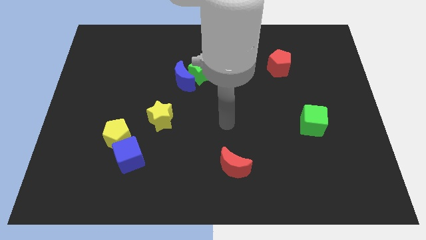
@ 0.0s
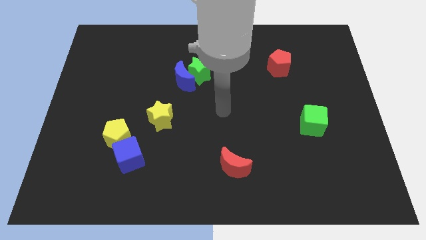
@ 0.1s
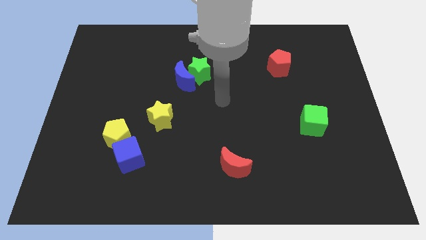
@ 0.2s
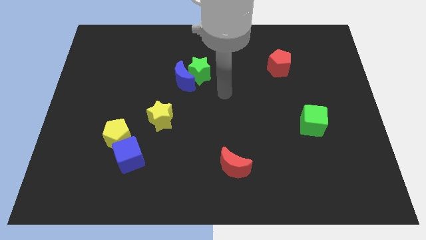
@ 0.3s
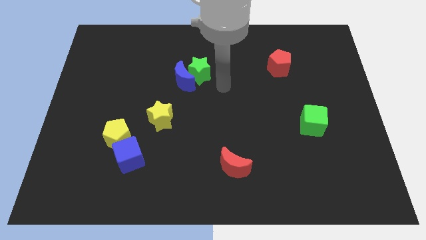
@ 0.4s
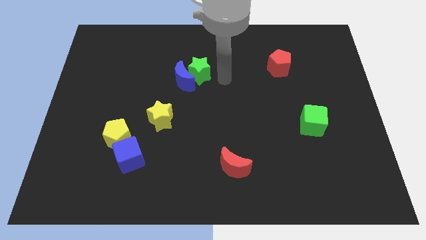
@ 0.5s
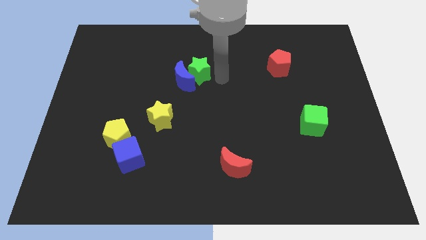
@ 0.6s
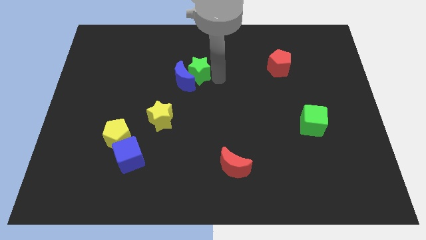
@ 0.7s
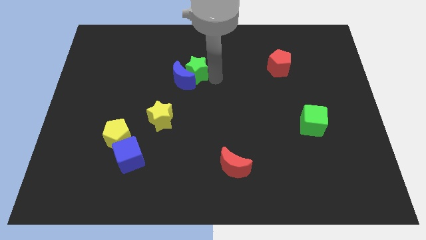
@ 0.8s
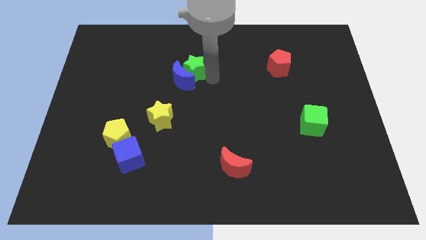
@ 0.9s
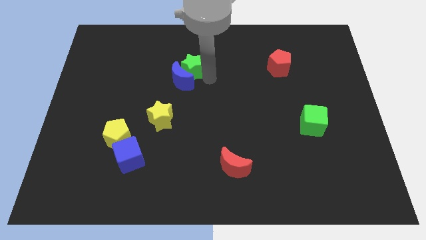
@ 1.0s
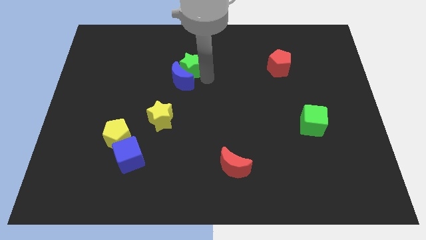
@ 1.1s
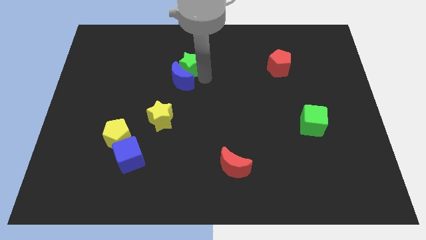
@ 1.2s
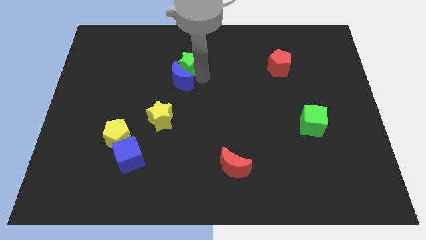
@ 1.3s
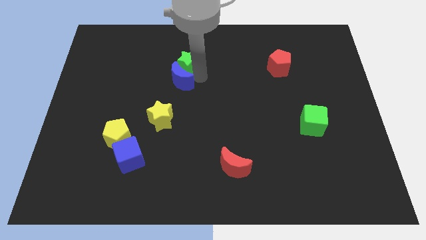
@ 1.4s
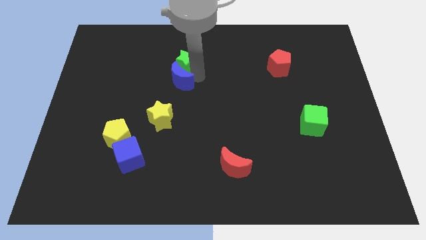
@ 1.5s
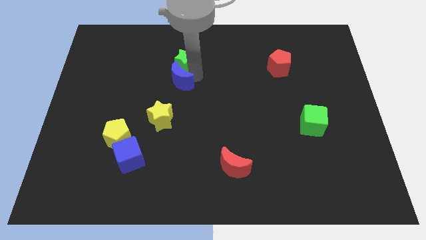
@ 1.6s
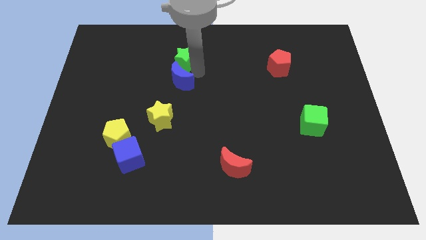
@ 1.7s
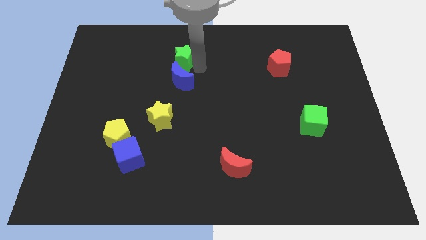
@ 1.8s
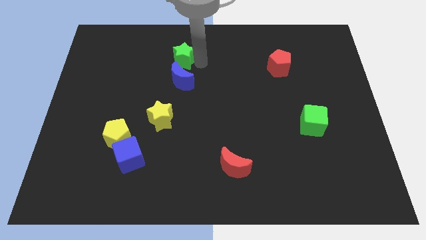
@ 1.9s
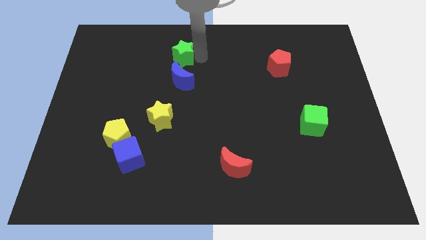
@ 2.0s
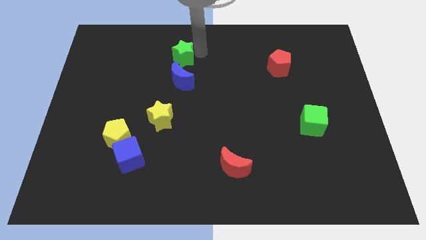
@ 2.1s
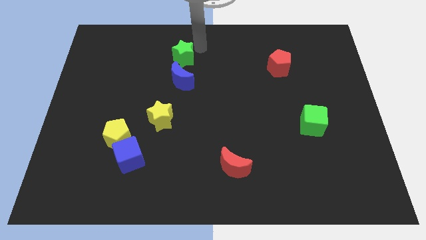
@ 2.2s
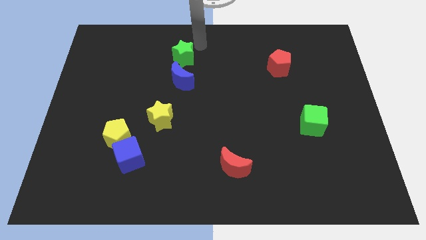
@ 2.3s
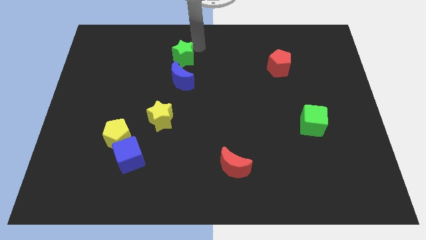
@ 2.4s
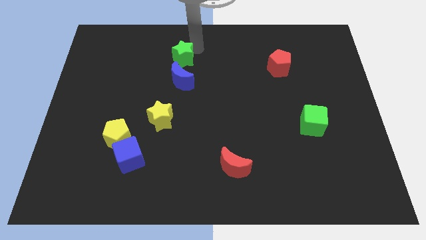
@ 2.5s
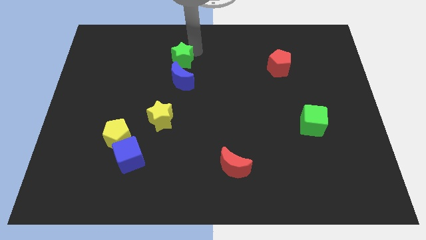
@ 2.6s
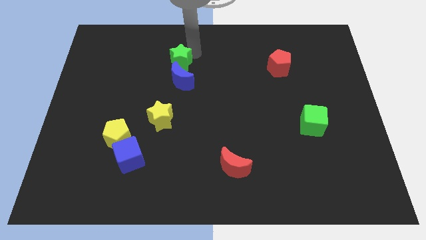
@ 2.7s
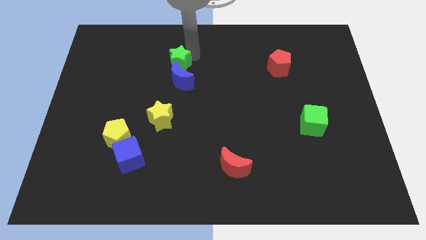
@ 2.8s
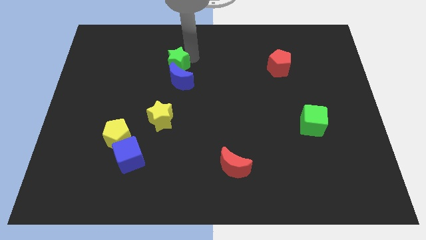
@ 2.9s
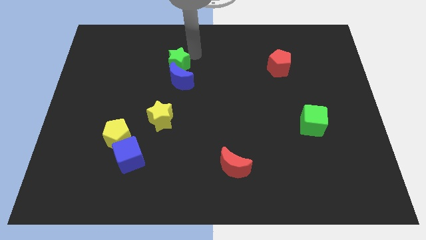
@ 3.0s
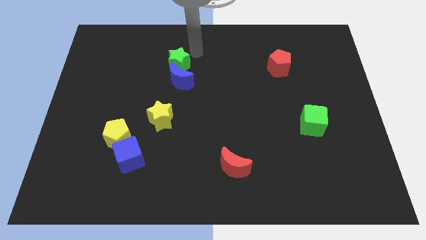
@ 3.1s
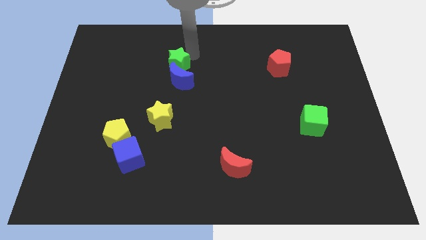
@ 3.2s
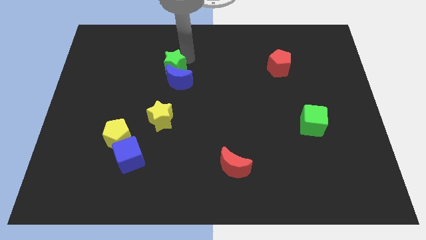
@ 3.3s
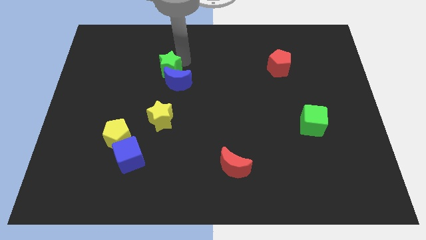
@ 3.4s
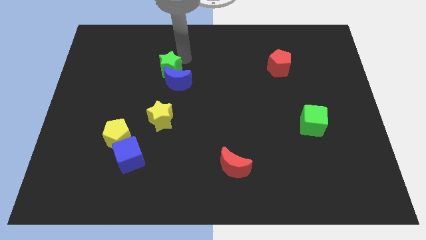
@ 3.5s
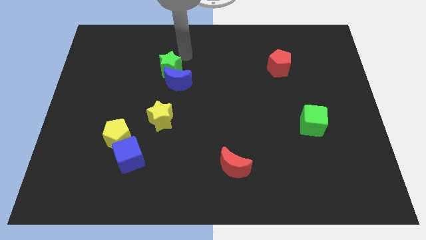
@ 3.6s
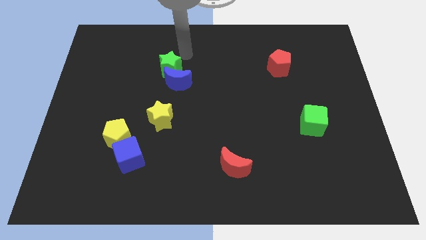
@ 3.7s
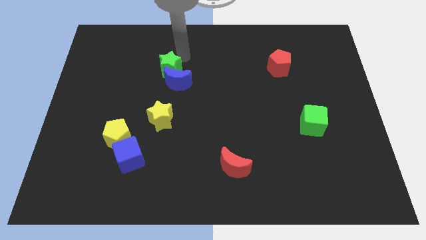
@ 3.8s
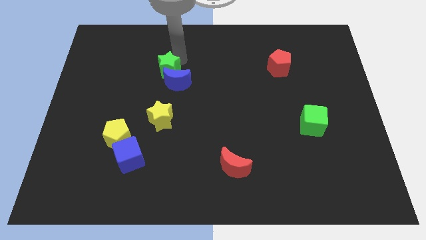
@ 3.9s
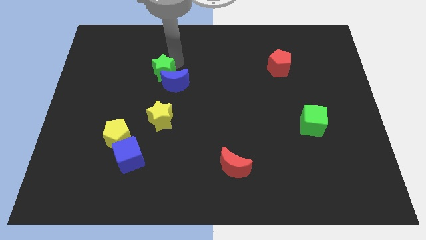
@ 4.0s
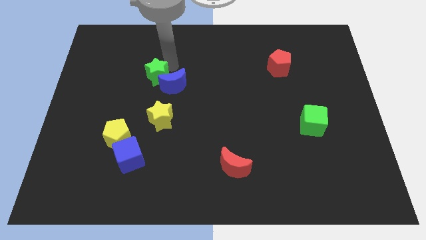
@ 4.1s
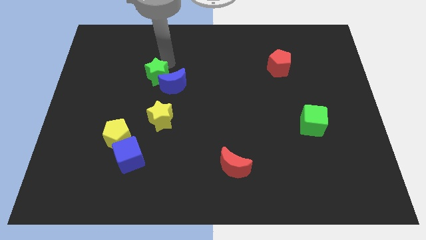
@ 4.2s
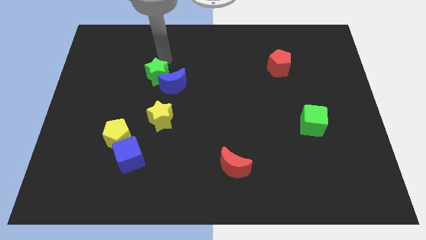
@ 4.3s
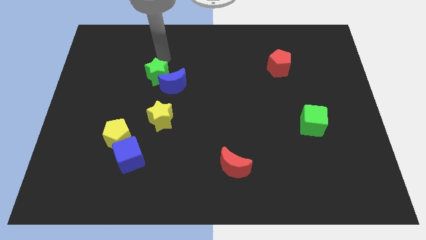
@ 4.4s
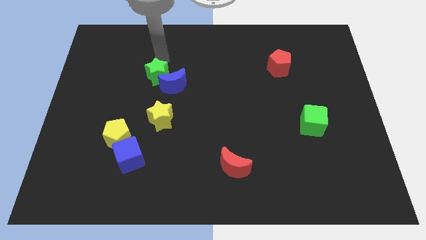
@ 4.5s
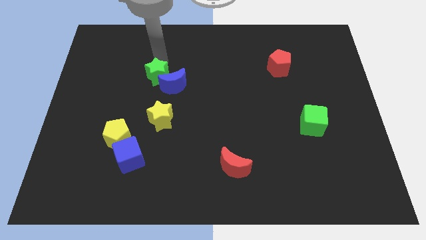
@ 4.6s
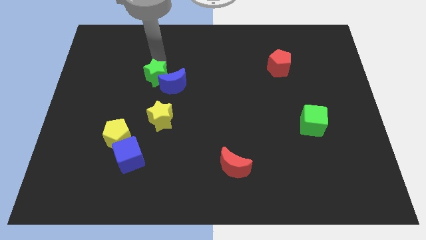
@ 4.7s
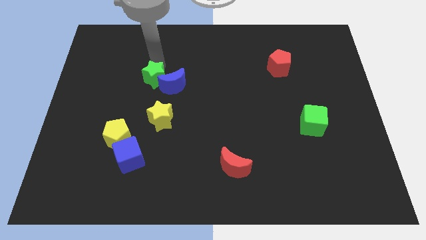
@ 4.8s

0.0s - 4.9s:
move the green star down and then left a little bit

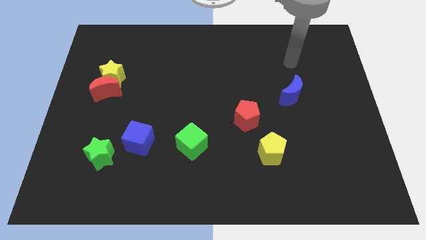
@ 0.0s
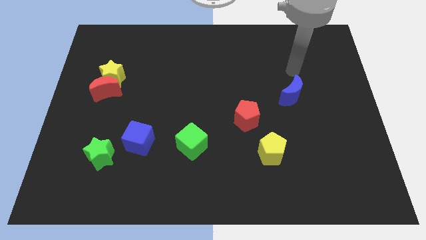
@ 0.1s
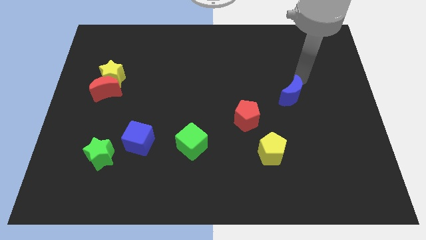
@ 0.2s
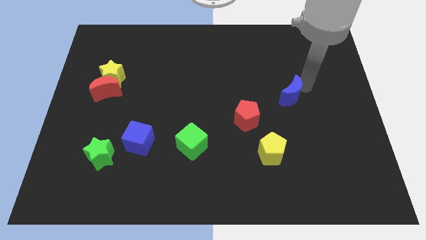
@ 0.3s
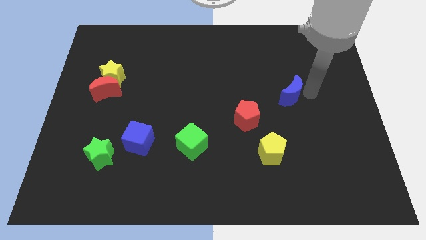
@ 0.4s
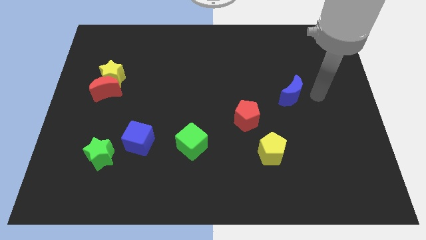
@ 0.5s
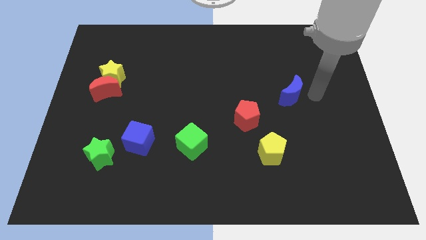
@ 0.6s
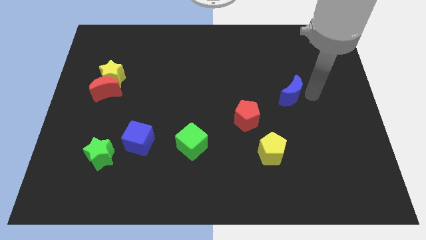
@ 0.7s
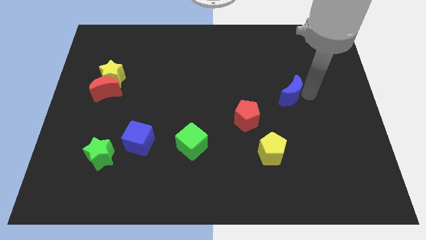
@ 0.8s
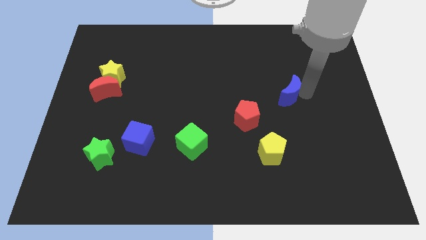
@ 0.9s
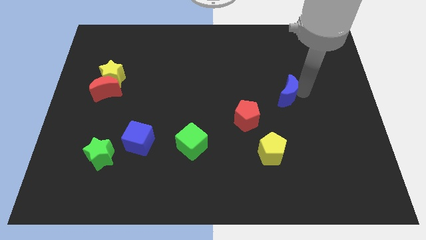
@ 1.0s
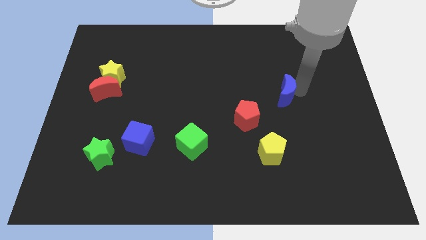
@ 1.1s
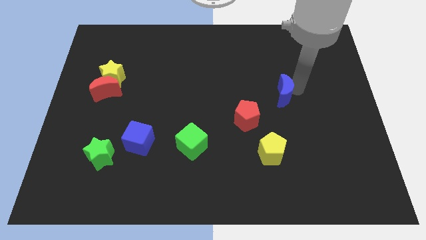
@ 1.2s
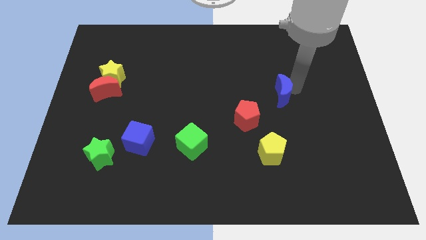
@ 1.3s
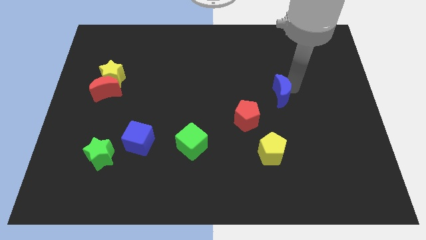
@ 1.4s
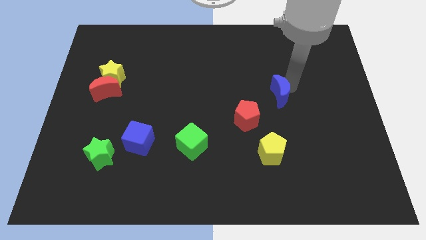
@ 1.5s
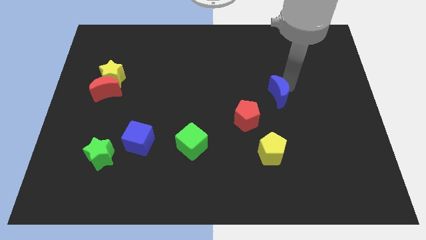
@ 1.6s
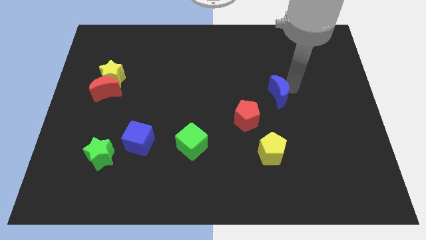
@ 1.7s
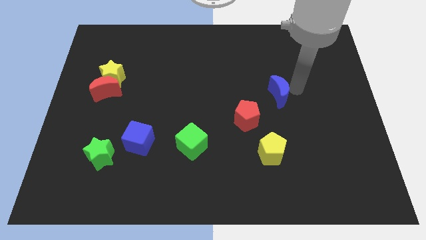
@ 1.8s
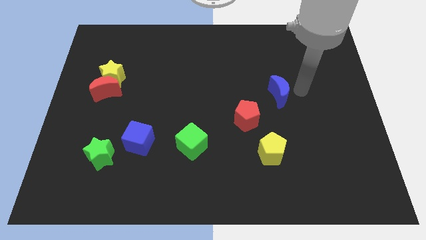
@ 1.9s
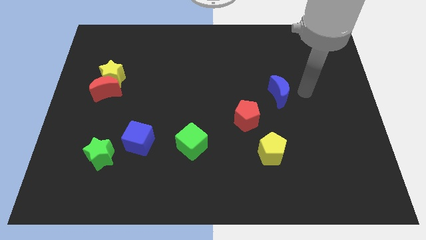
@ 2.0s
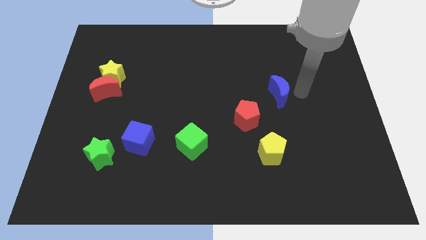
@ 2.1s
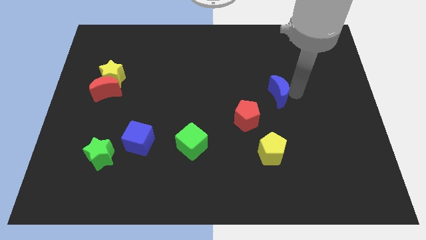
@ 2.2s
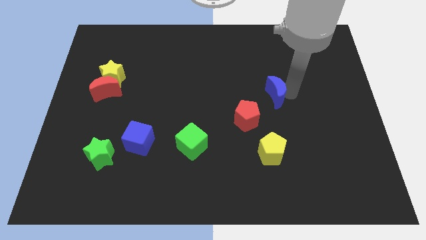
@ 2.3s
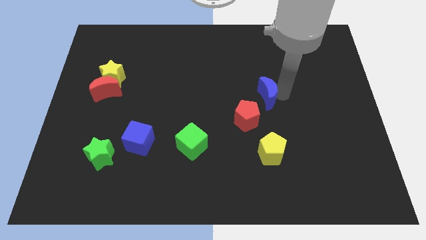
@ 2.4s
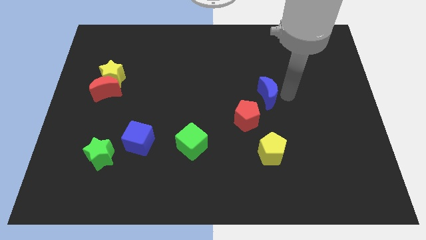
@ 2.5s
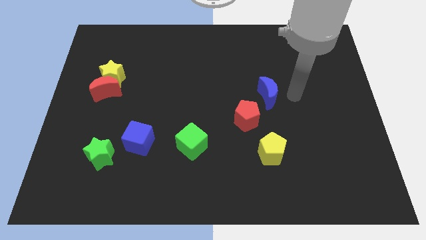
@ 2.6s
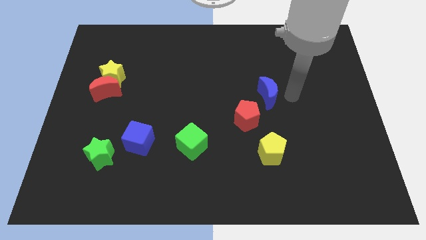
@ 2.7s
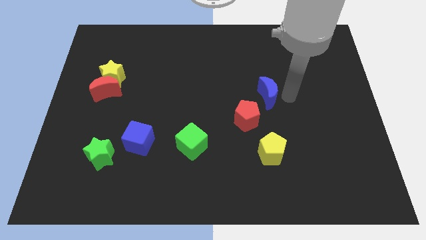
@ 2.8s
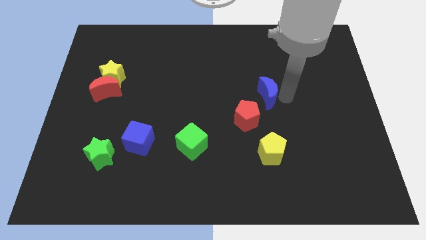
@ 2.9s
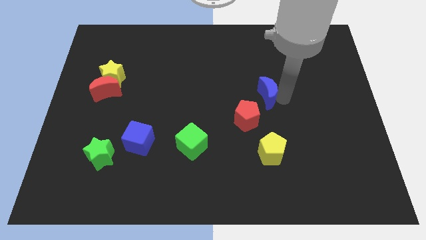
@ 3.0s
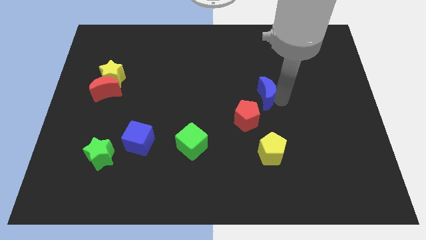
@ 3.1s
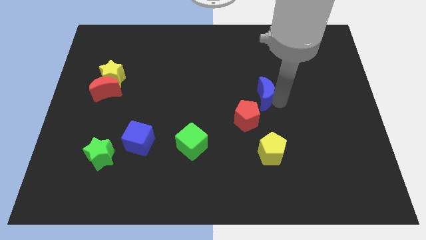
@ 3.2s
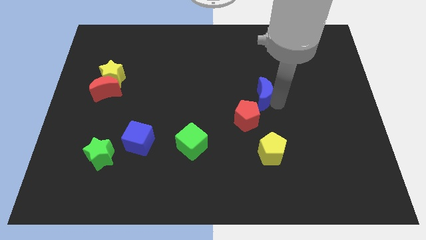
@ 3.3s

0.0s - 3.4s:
slightly move the blue moon left
